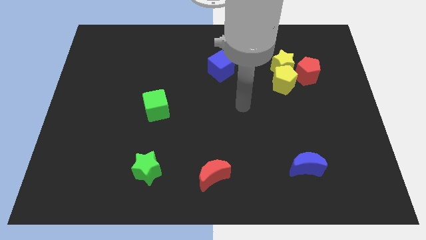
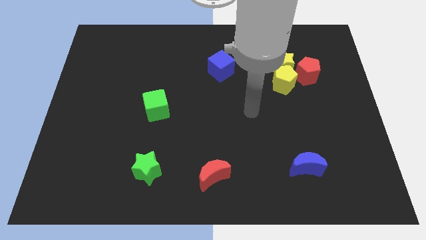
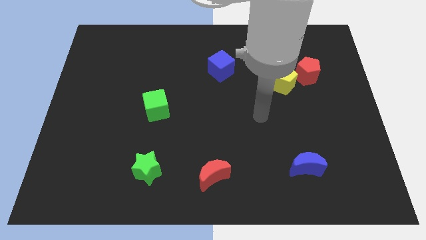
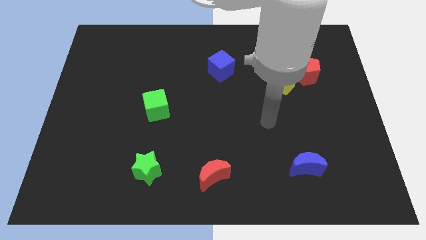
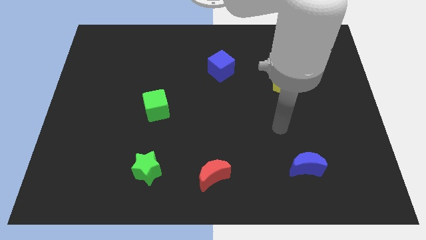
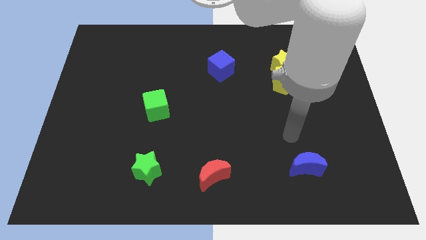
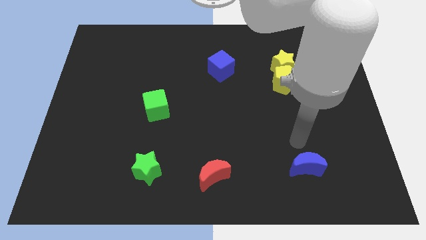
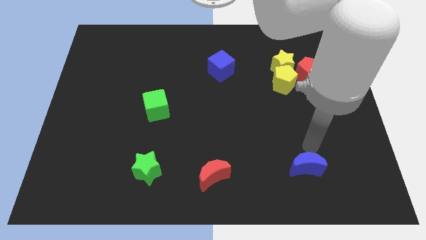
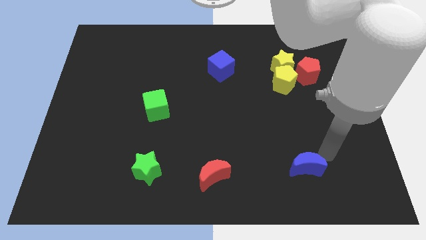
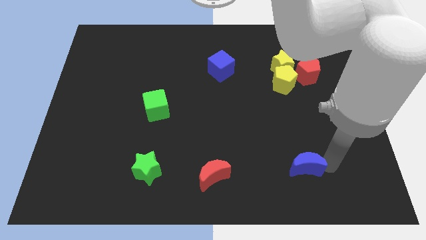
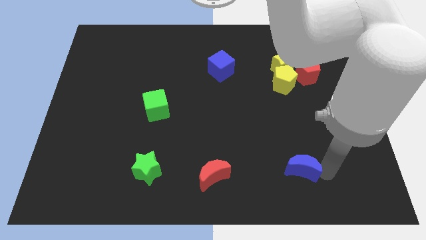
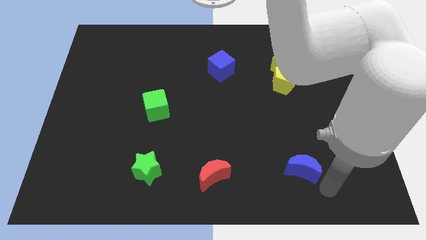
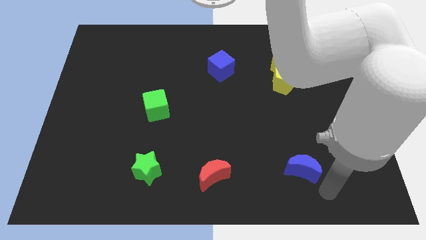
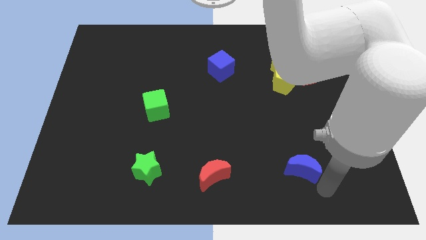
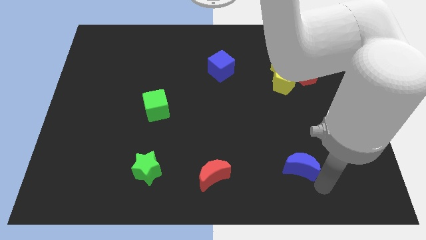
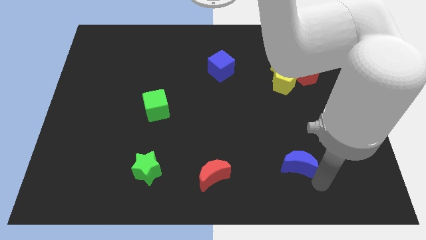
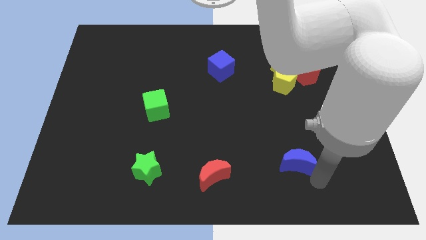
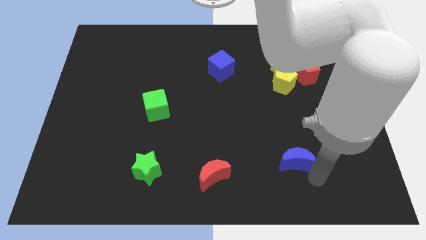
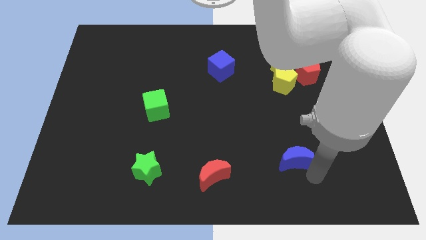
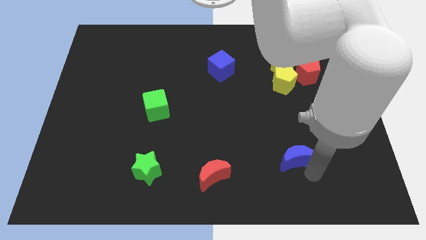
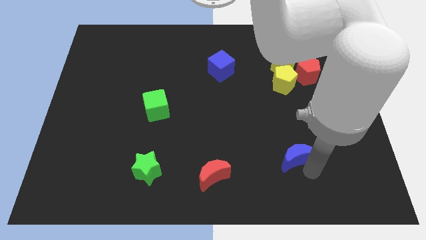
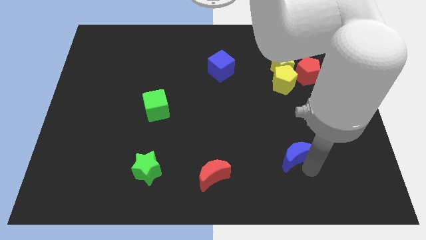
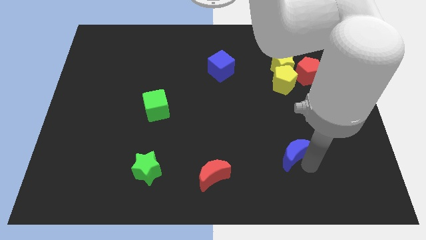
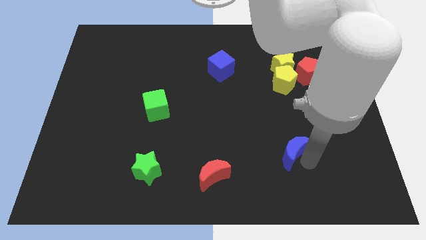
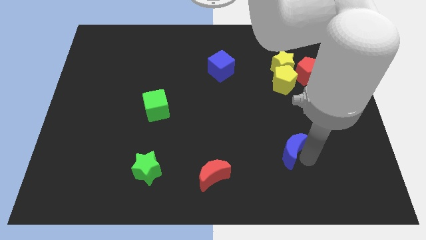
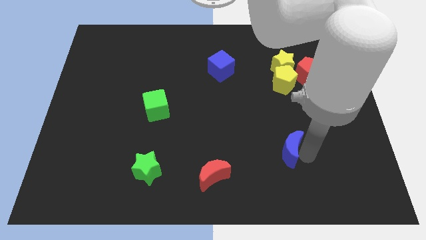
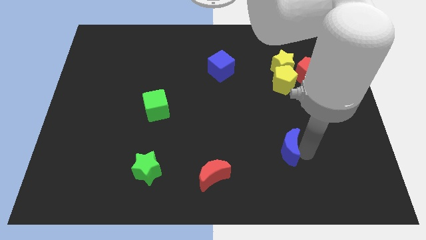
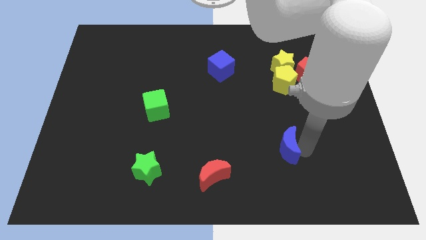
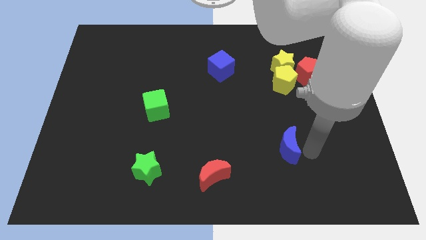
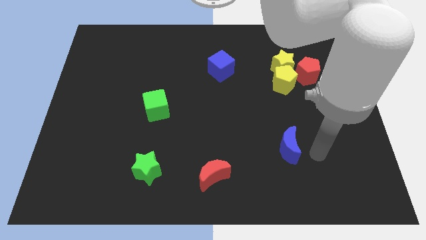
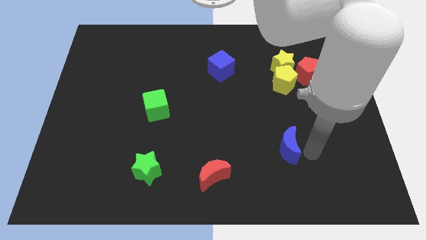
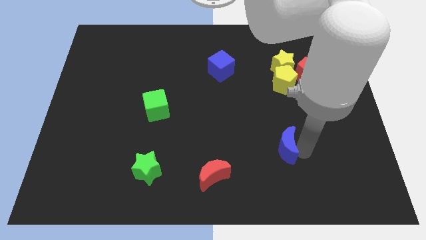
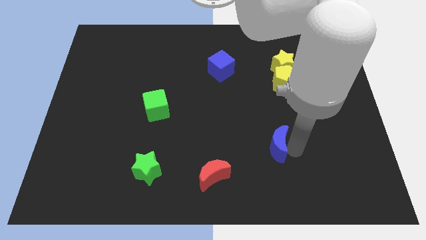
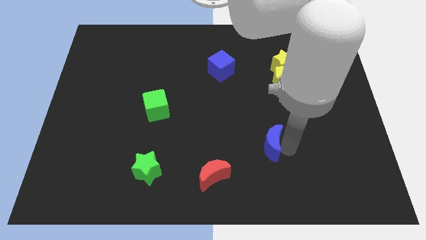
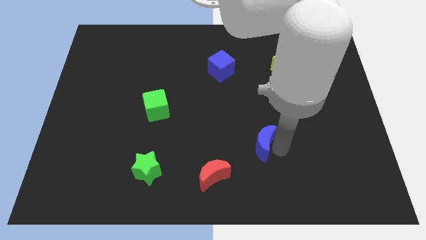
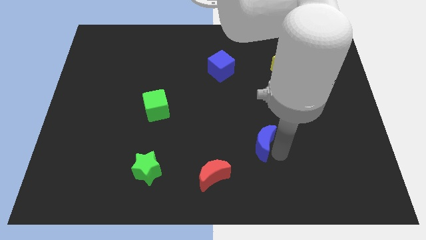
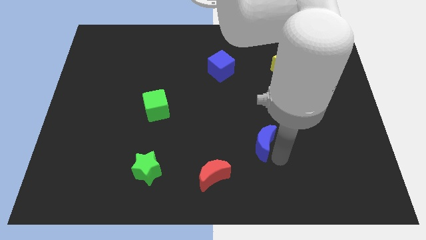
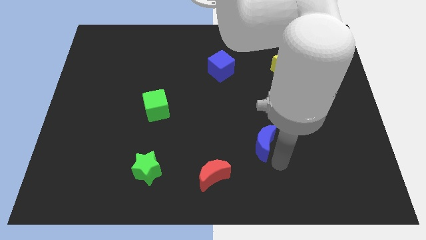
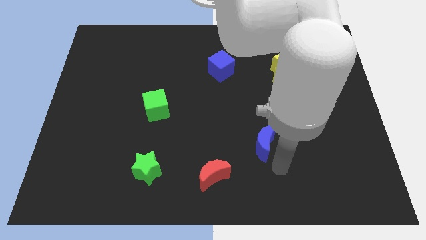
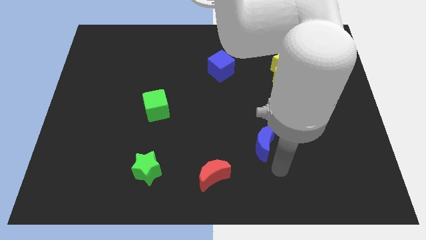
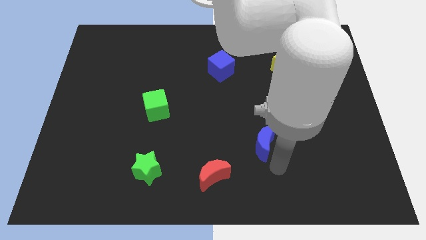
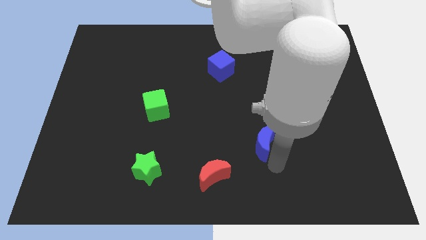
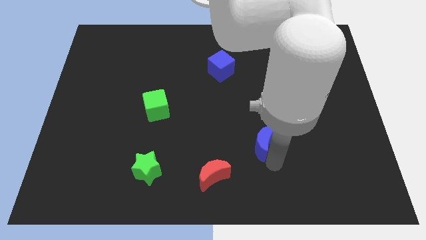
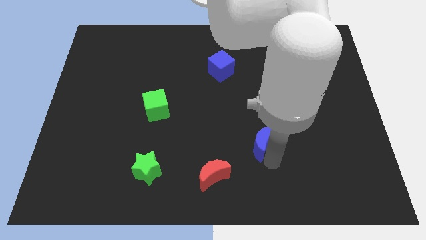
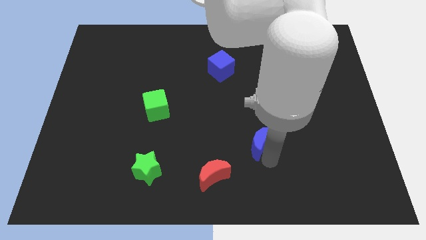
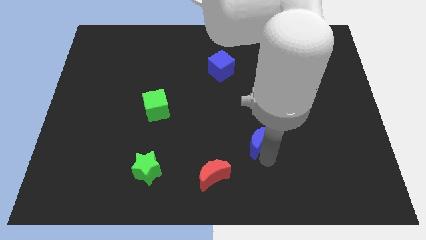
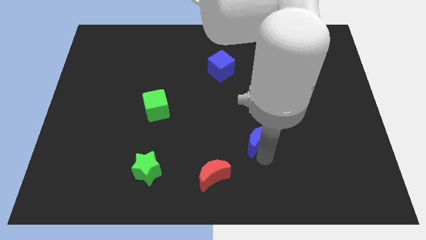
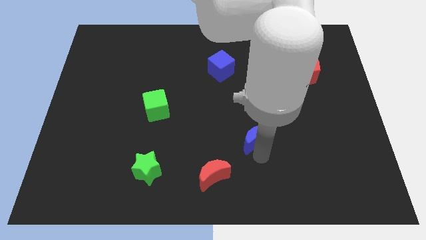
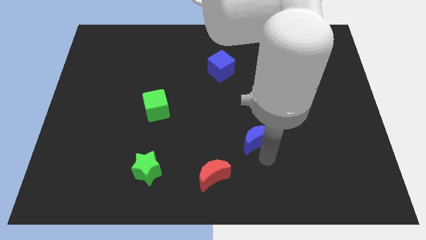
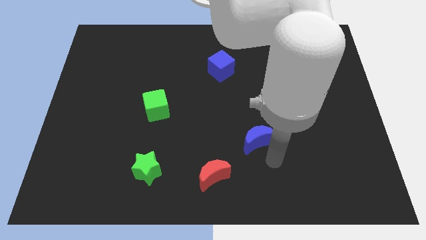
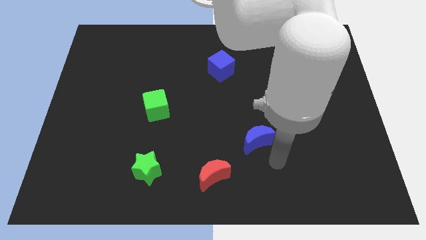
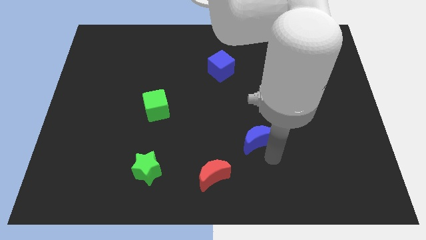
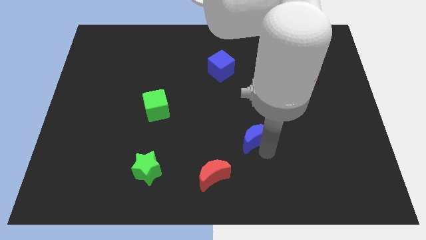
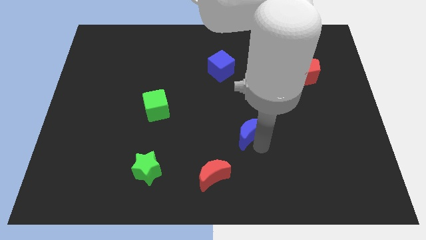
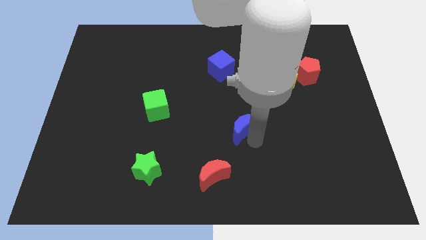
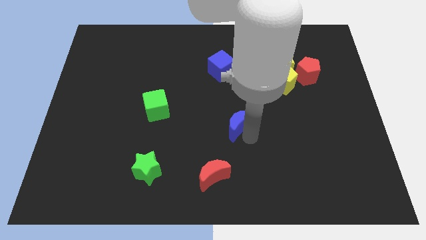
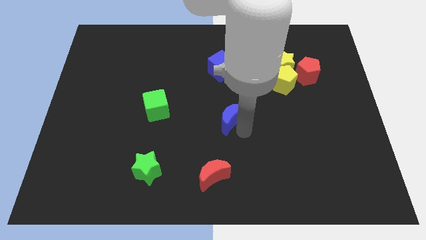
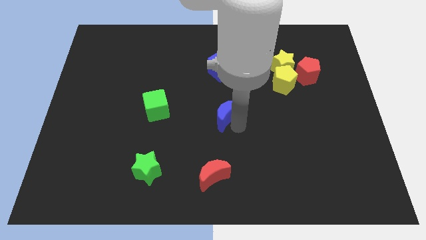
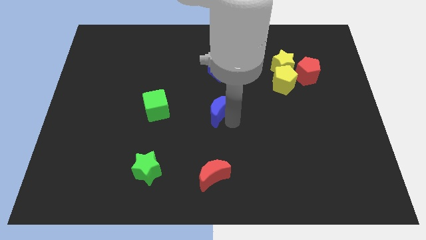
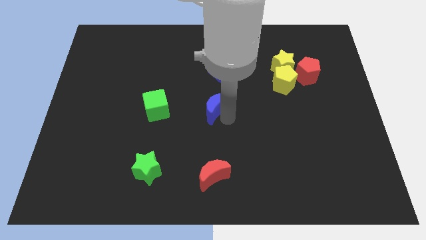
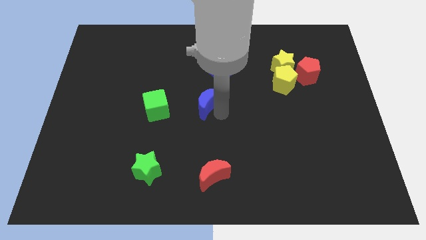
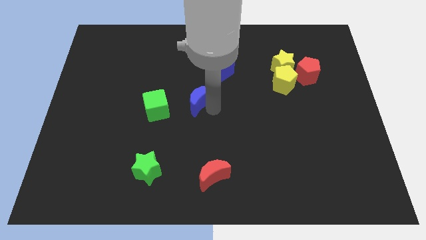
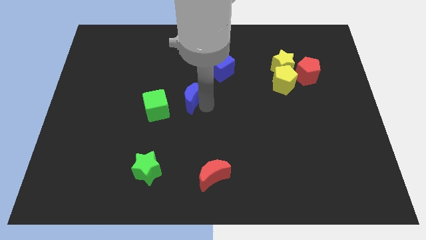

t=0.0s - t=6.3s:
slide the blue moon diagonally up and to the right of the green cube

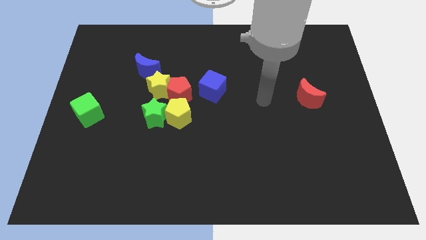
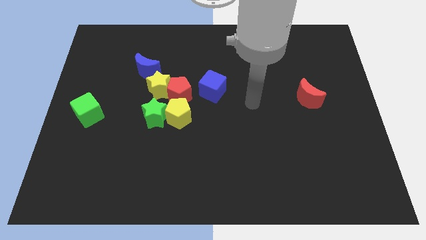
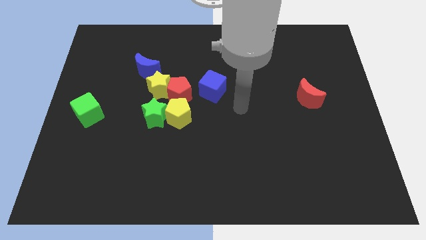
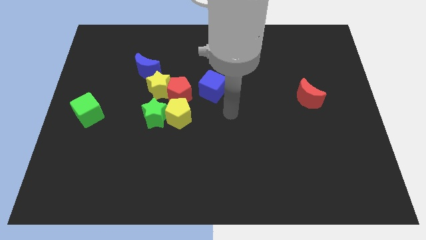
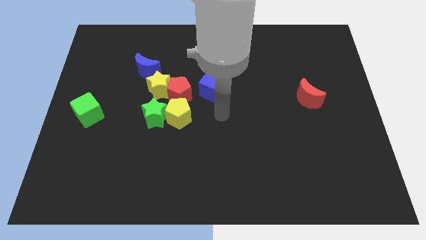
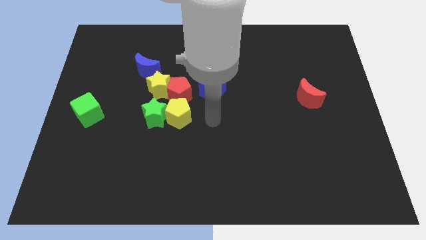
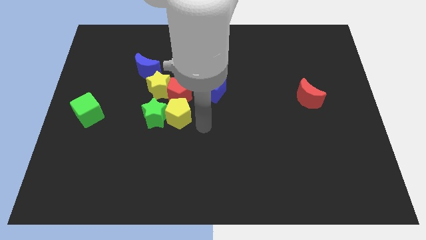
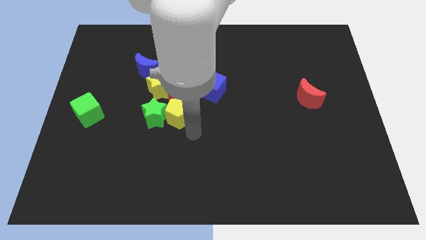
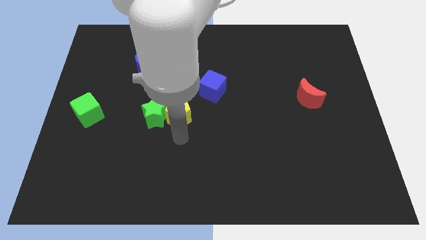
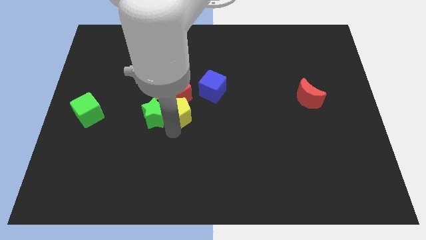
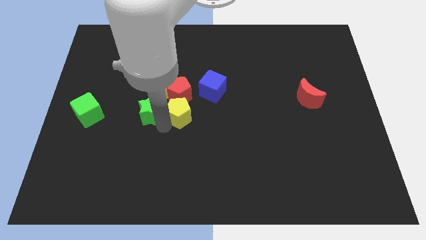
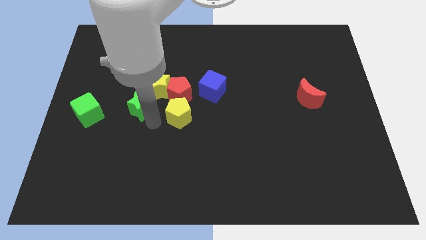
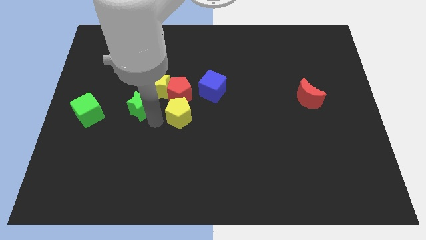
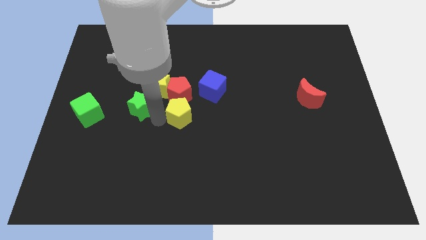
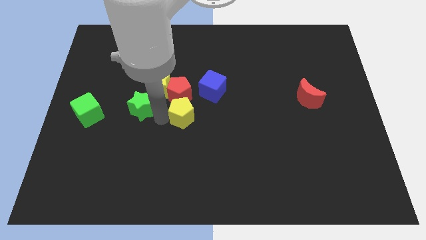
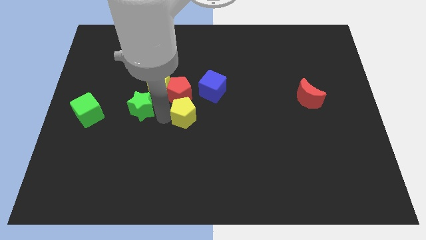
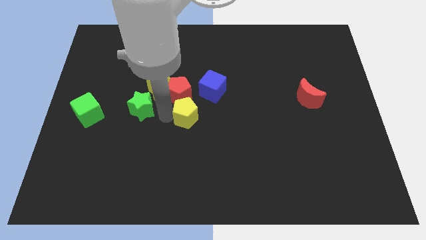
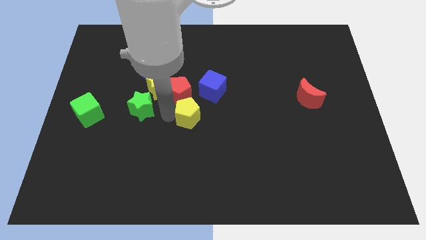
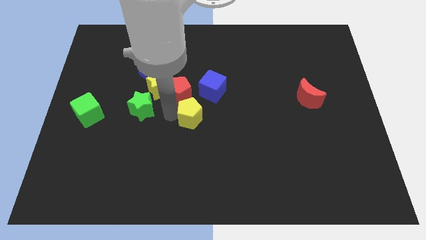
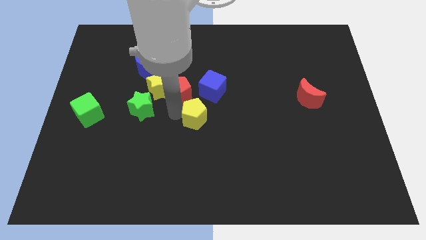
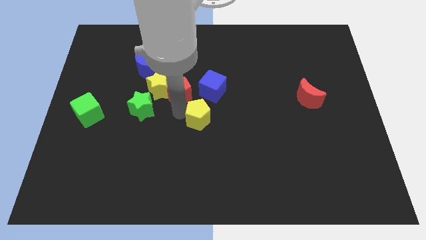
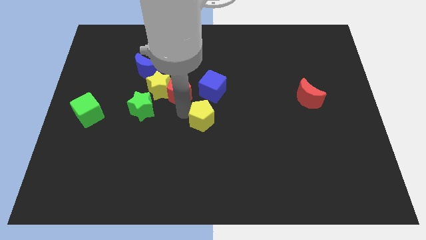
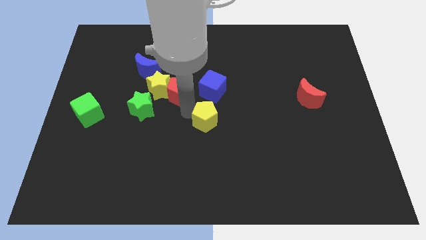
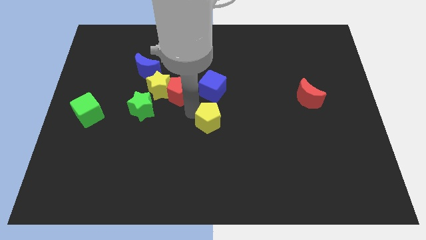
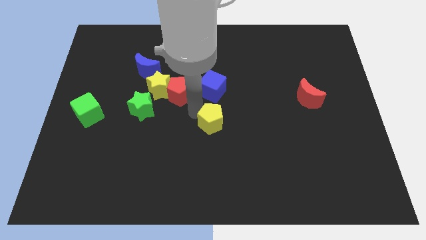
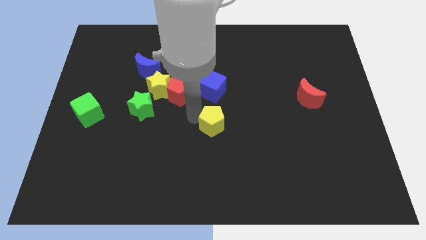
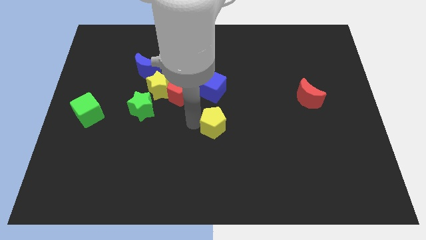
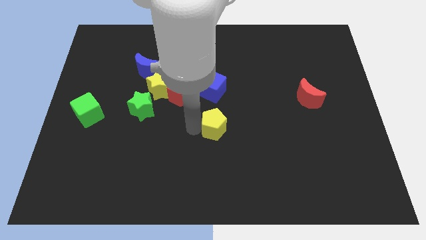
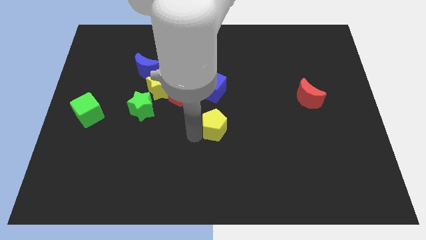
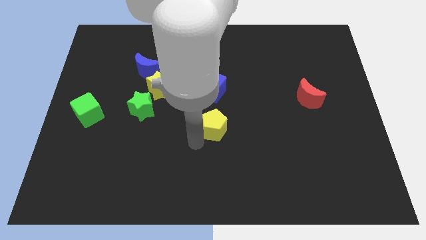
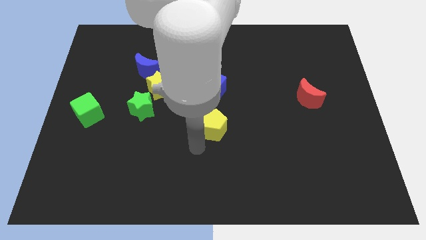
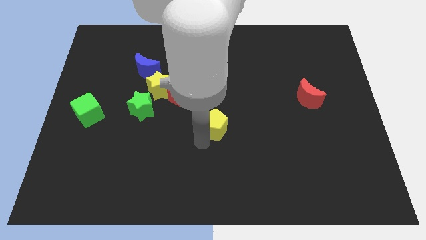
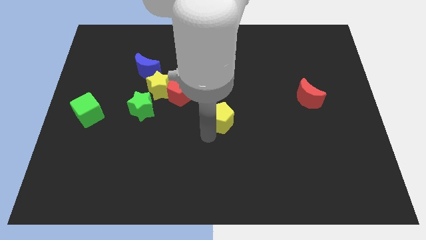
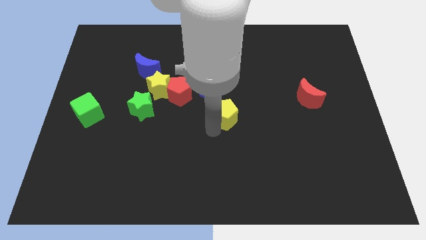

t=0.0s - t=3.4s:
push the yellow pentagon to the bottom right side of the blue cube
